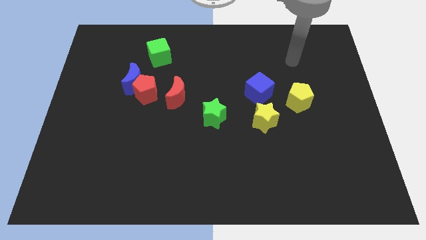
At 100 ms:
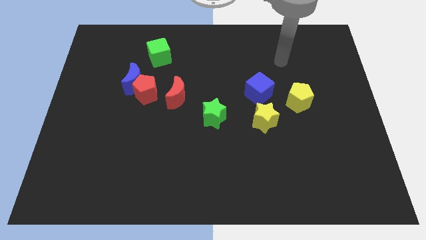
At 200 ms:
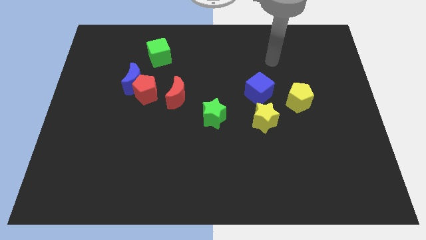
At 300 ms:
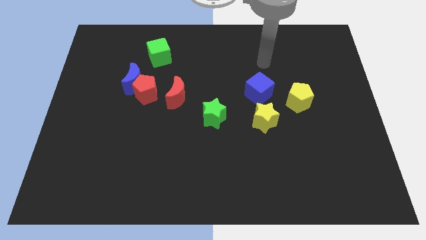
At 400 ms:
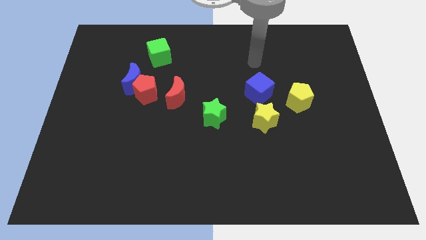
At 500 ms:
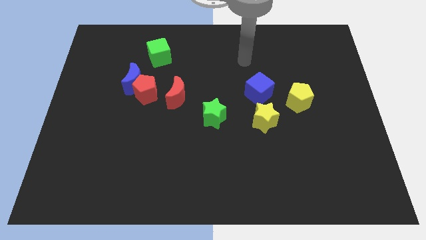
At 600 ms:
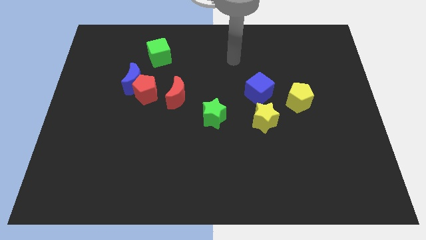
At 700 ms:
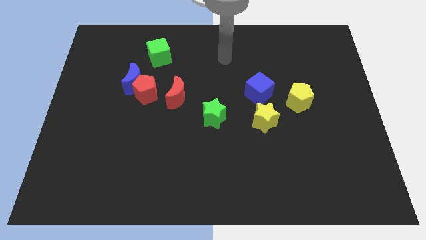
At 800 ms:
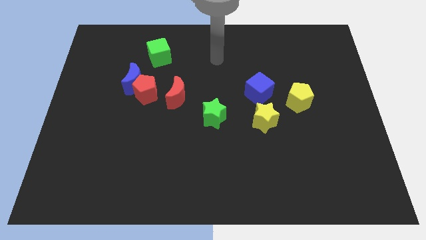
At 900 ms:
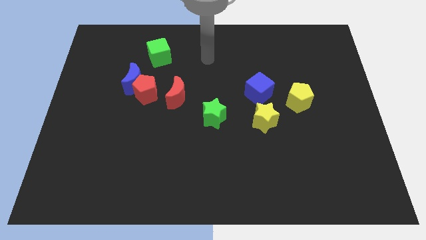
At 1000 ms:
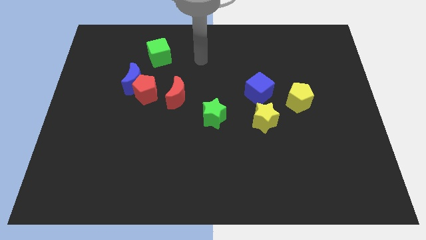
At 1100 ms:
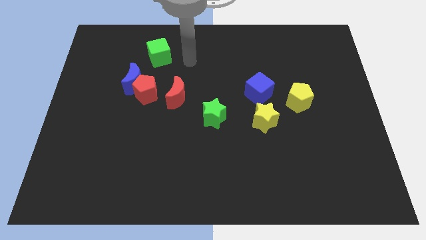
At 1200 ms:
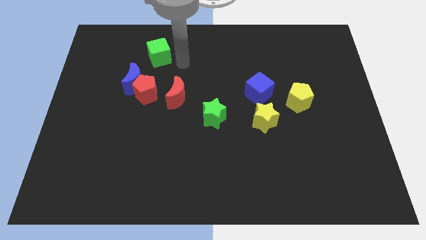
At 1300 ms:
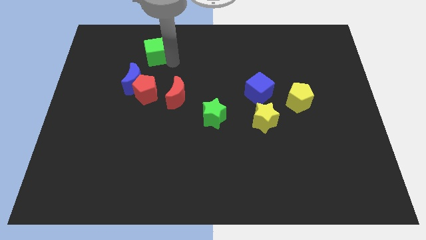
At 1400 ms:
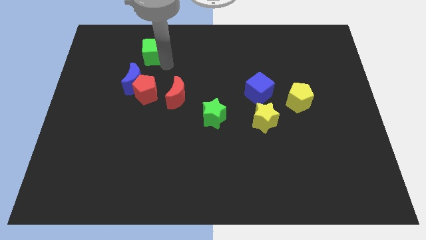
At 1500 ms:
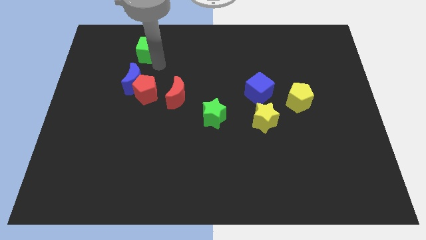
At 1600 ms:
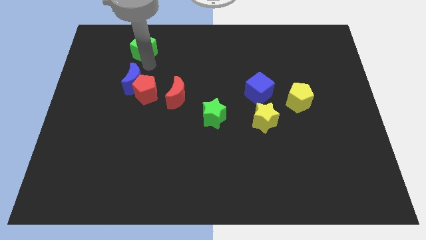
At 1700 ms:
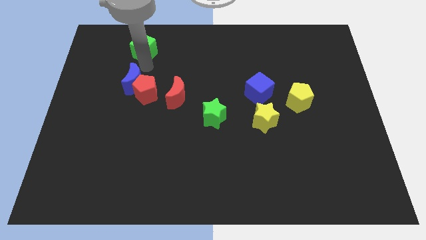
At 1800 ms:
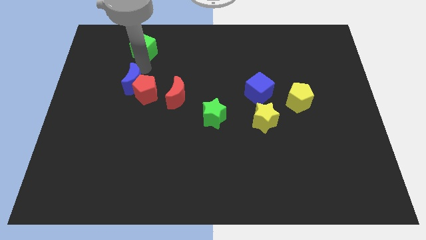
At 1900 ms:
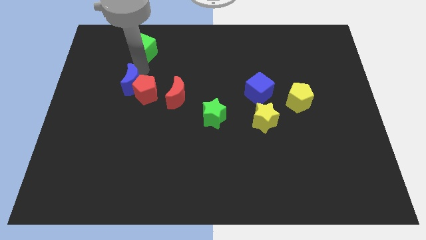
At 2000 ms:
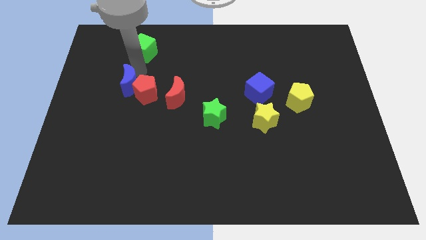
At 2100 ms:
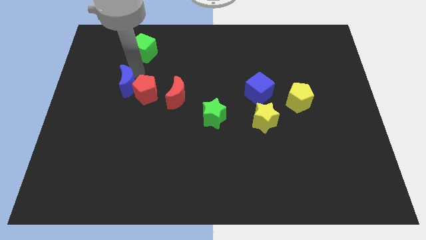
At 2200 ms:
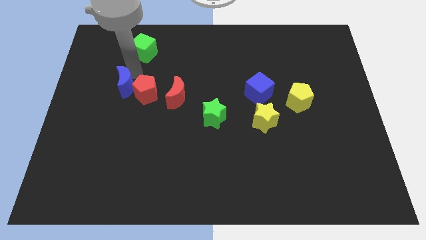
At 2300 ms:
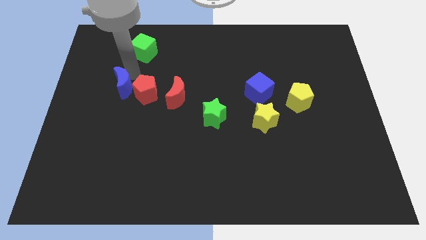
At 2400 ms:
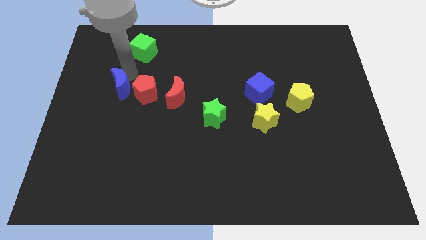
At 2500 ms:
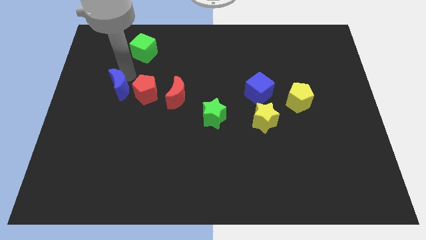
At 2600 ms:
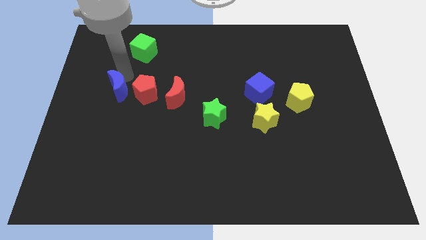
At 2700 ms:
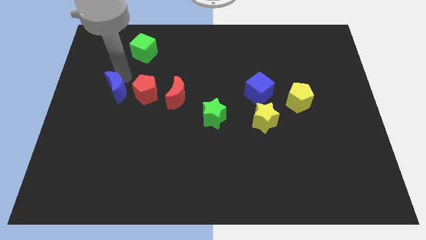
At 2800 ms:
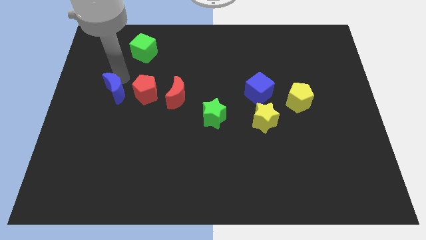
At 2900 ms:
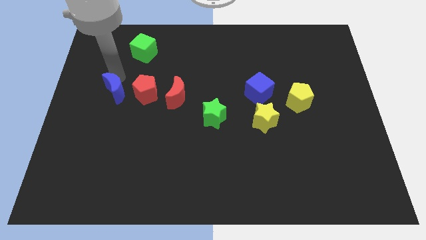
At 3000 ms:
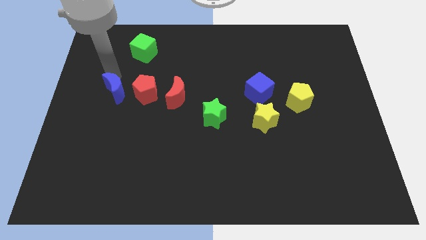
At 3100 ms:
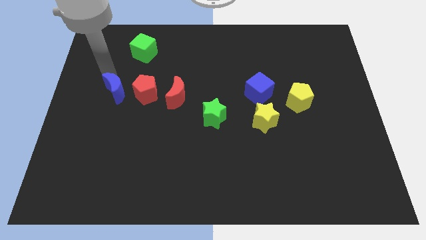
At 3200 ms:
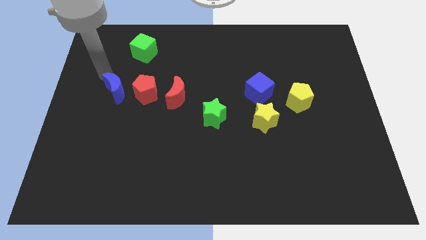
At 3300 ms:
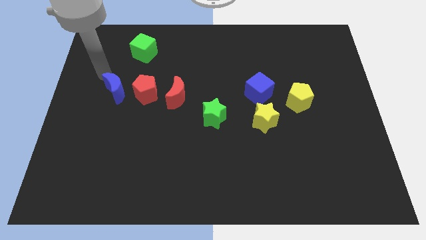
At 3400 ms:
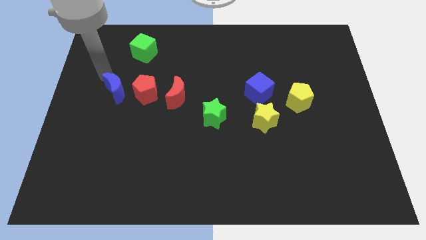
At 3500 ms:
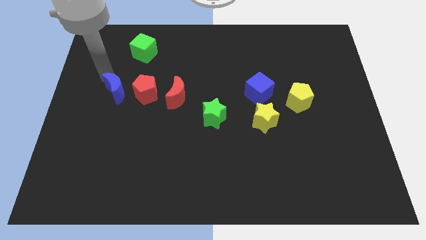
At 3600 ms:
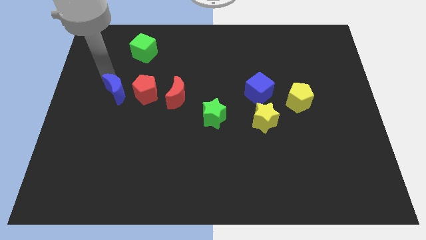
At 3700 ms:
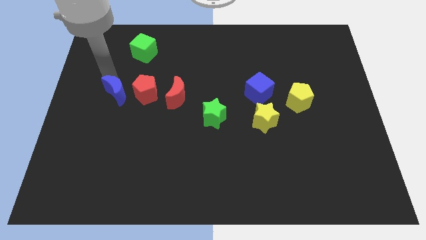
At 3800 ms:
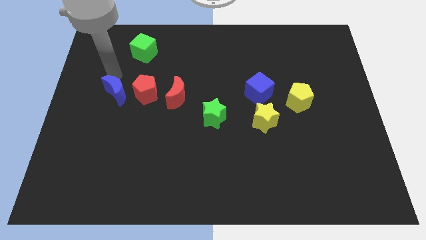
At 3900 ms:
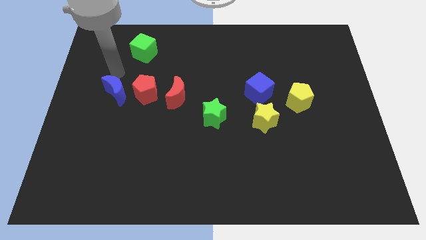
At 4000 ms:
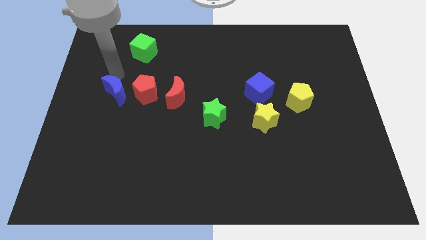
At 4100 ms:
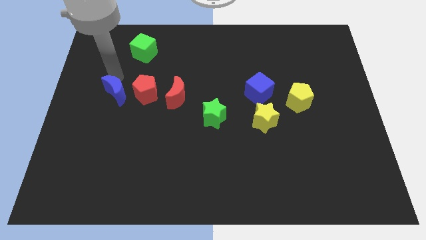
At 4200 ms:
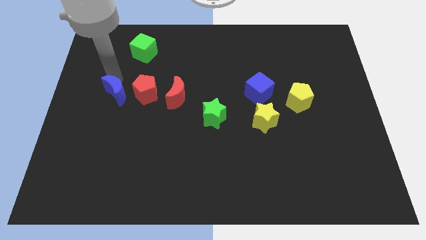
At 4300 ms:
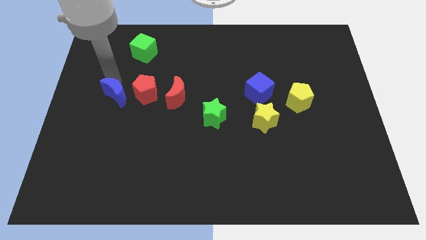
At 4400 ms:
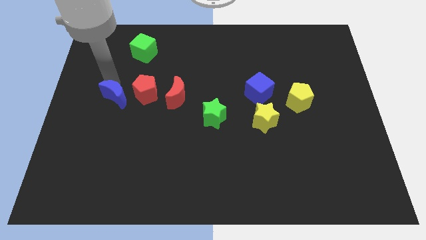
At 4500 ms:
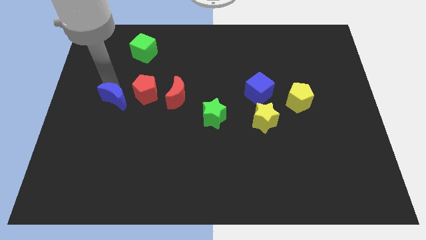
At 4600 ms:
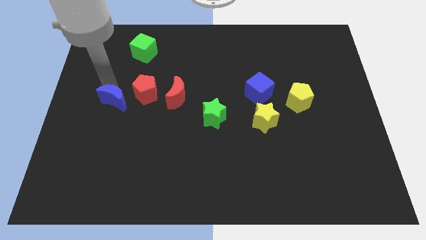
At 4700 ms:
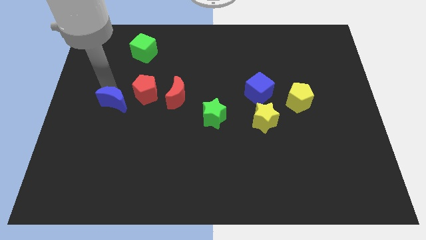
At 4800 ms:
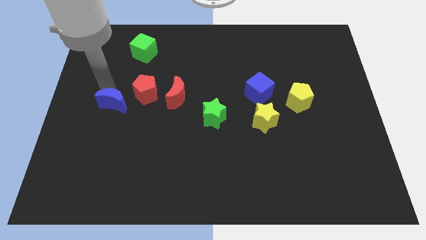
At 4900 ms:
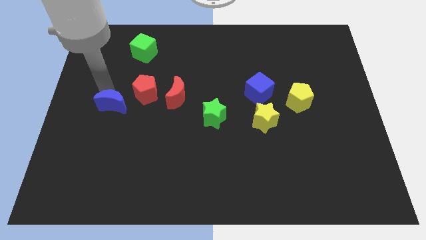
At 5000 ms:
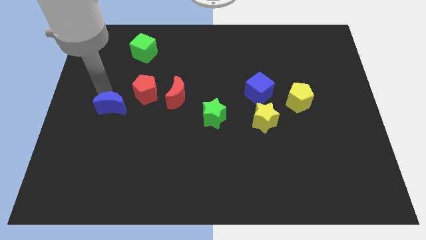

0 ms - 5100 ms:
slightly slide the blue moon down

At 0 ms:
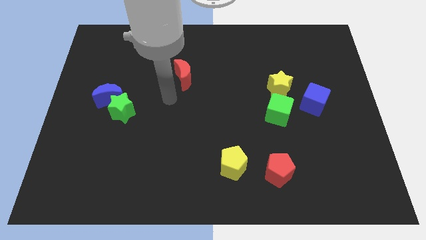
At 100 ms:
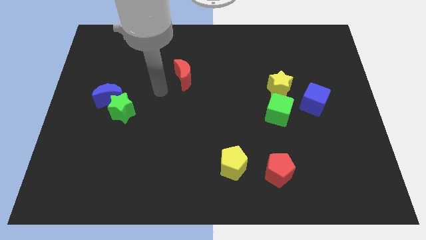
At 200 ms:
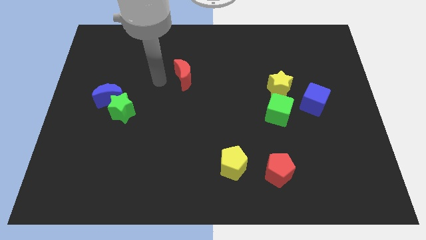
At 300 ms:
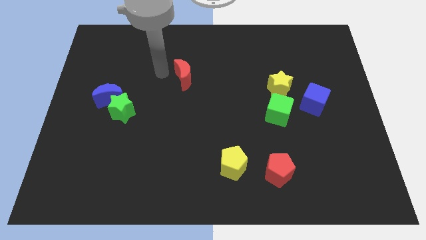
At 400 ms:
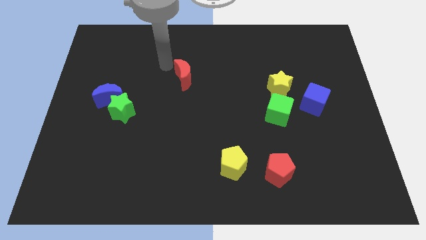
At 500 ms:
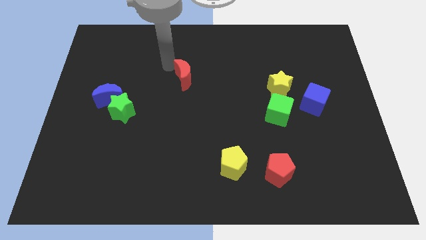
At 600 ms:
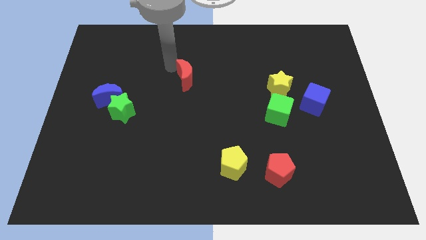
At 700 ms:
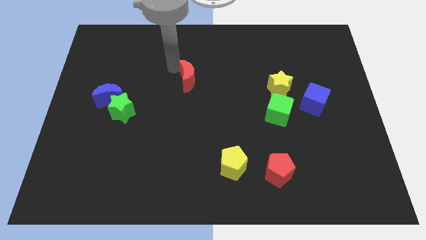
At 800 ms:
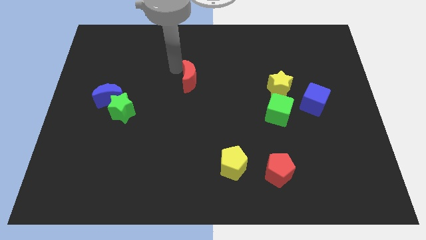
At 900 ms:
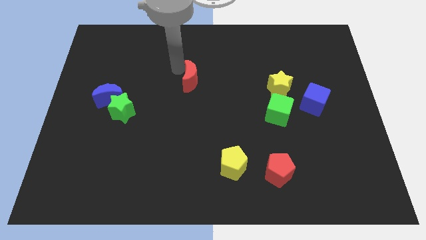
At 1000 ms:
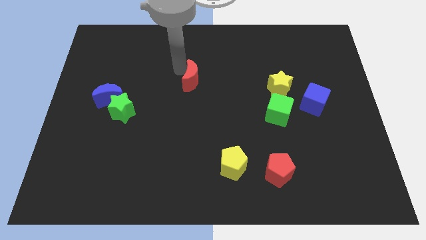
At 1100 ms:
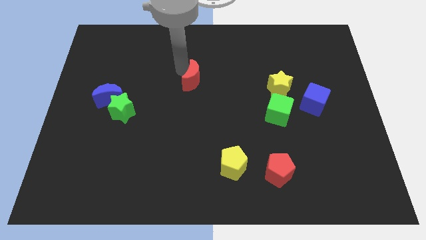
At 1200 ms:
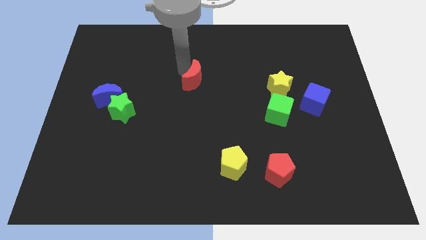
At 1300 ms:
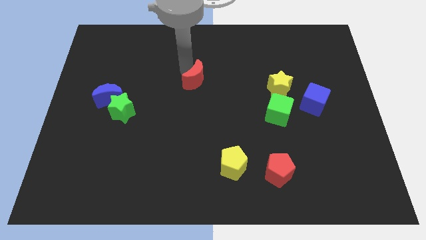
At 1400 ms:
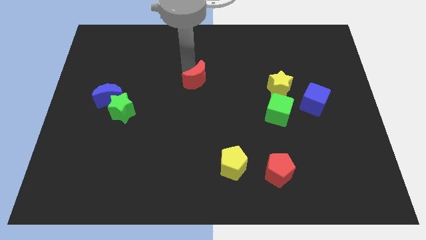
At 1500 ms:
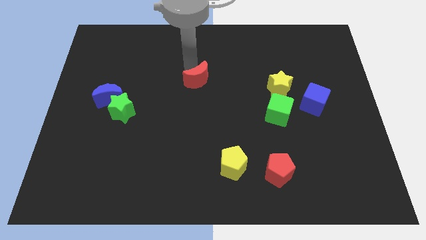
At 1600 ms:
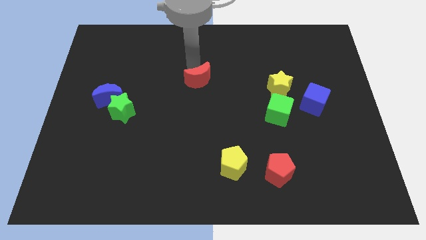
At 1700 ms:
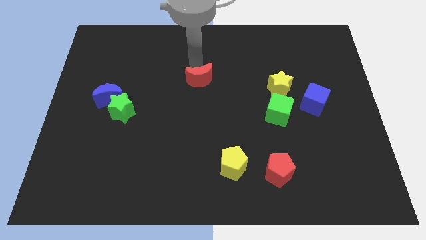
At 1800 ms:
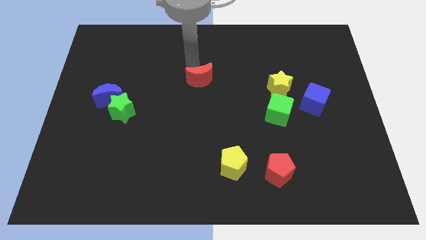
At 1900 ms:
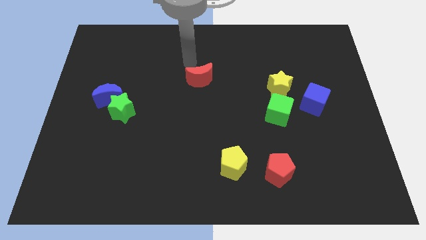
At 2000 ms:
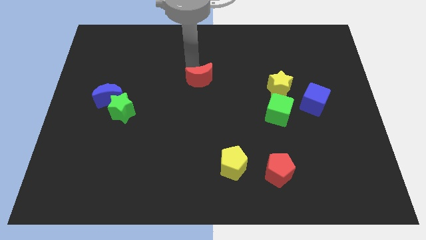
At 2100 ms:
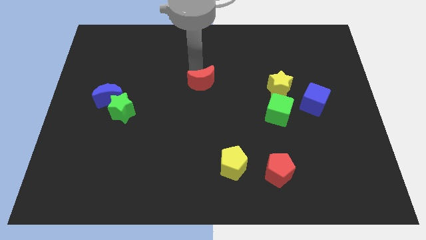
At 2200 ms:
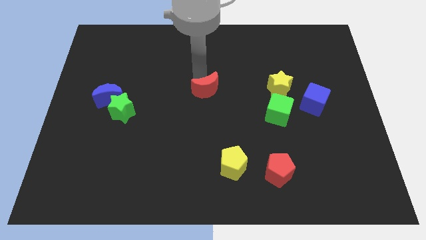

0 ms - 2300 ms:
move the red moon down and then right a bit

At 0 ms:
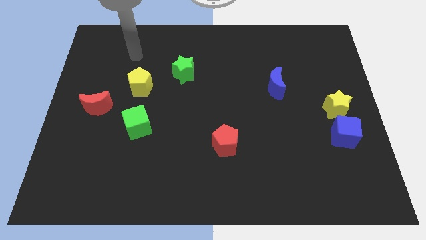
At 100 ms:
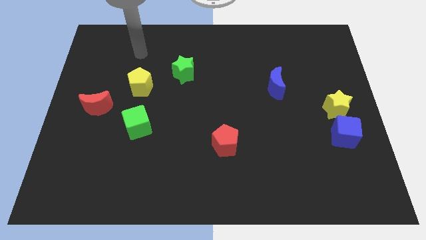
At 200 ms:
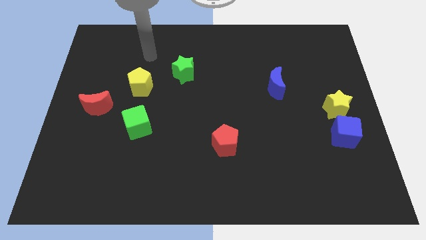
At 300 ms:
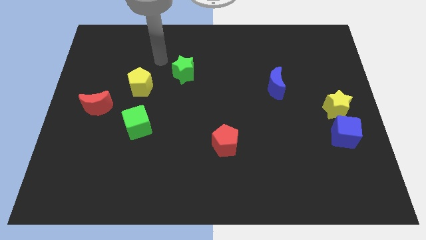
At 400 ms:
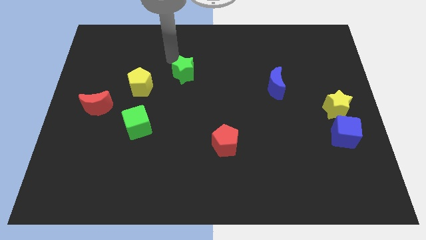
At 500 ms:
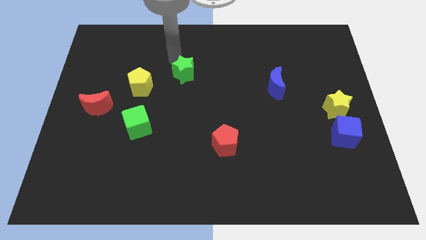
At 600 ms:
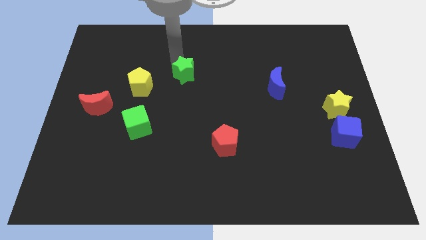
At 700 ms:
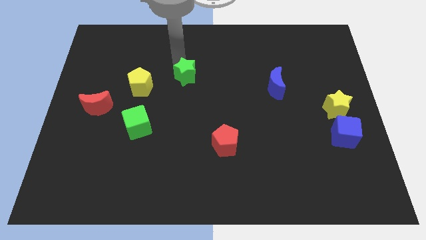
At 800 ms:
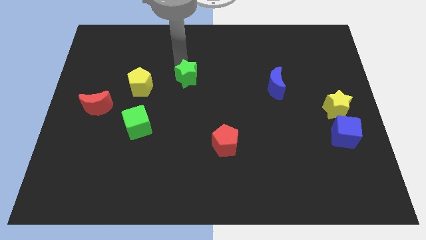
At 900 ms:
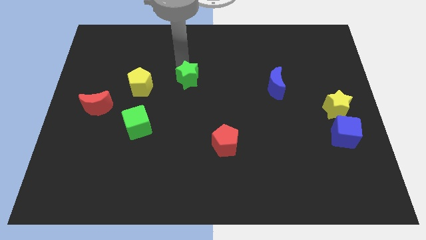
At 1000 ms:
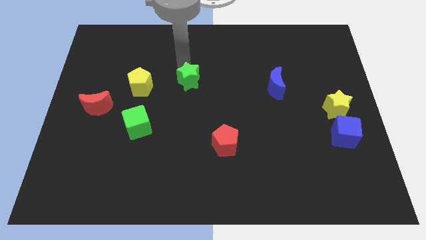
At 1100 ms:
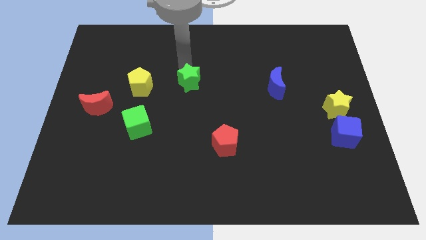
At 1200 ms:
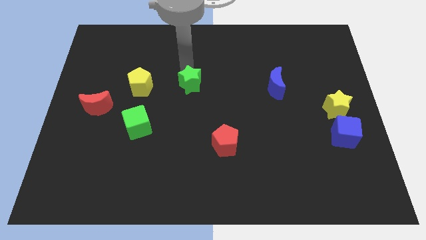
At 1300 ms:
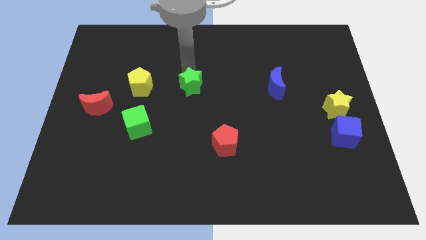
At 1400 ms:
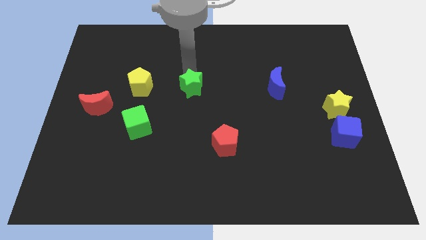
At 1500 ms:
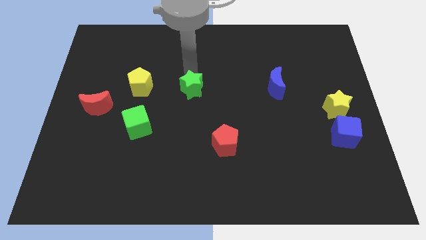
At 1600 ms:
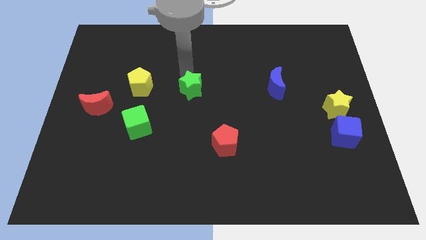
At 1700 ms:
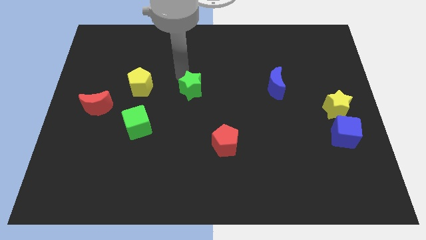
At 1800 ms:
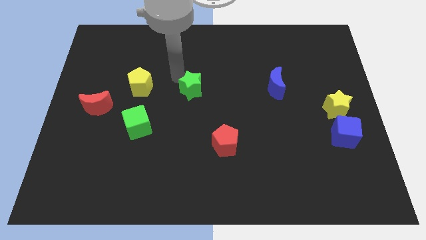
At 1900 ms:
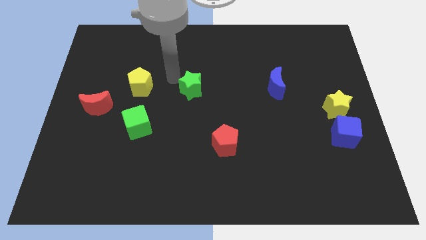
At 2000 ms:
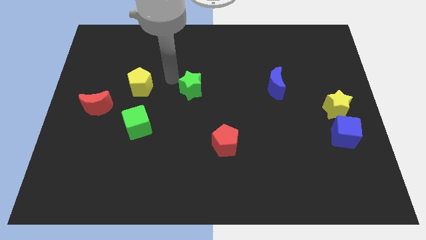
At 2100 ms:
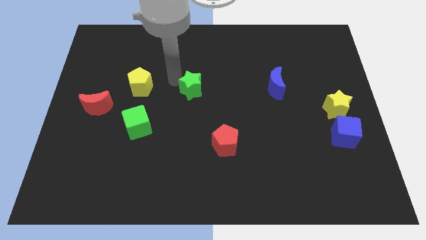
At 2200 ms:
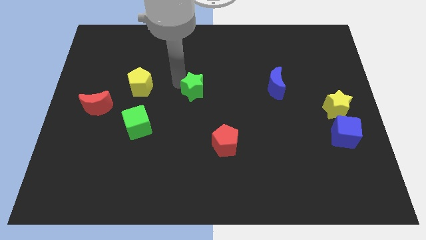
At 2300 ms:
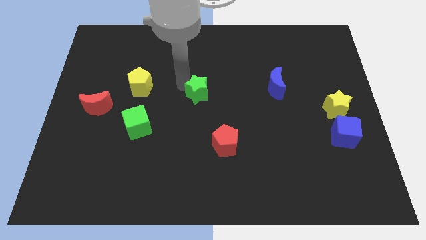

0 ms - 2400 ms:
push the green star diagonally downwards and right somewhat
